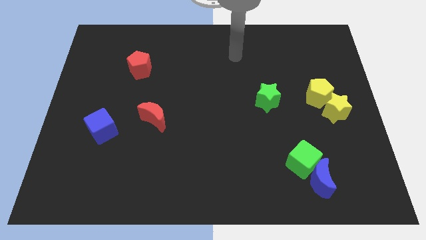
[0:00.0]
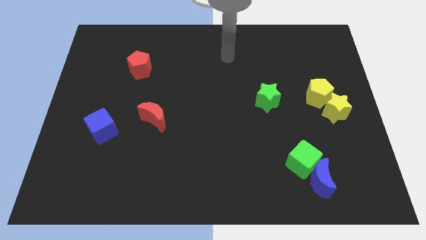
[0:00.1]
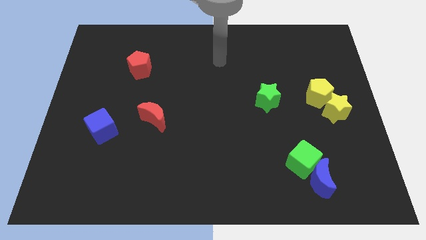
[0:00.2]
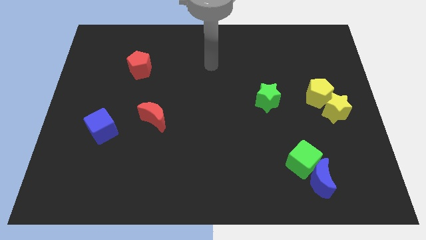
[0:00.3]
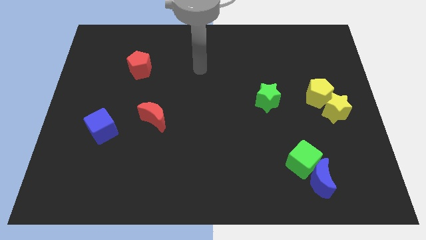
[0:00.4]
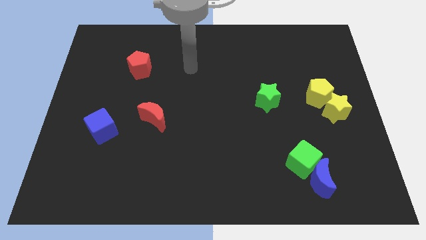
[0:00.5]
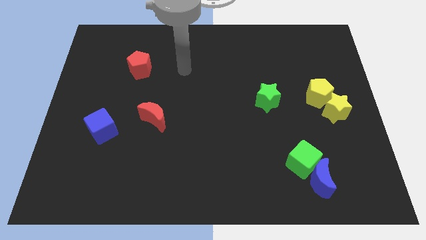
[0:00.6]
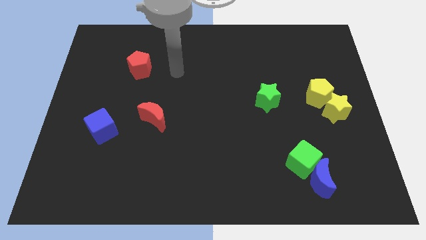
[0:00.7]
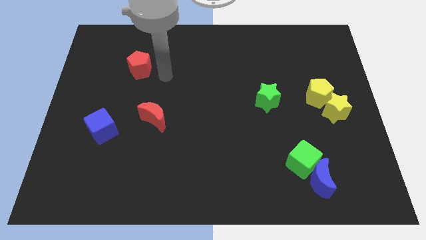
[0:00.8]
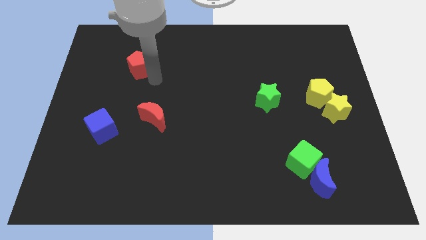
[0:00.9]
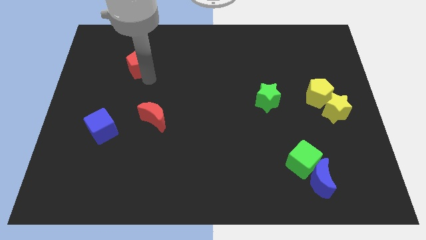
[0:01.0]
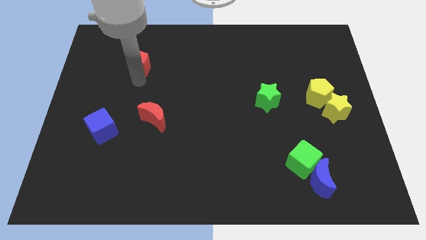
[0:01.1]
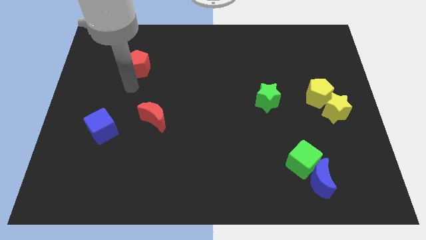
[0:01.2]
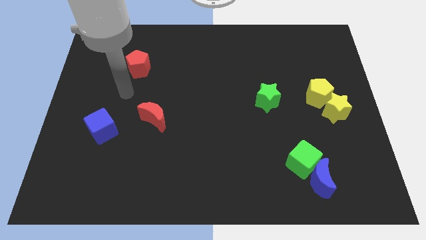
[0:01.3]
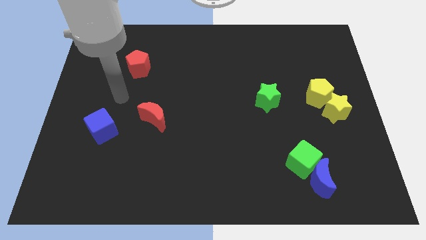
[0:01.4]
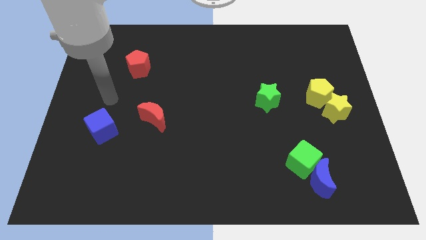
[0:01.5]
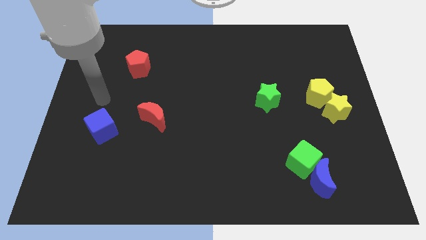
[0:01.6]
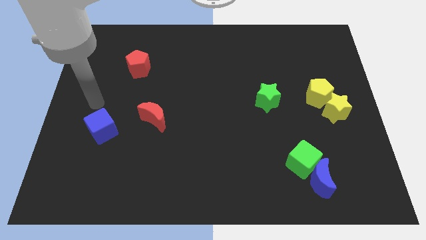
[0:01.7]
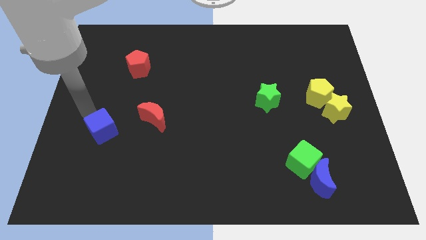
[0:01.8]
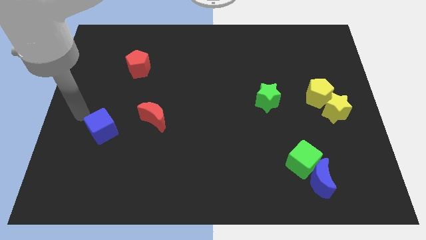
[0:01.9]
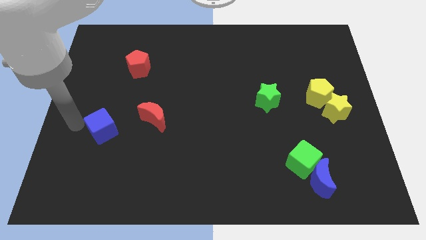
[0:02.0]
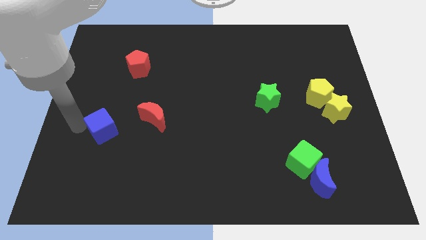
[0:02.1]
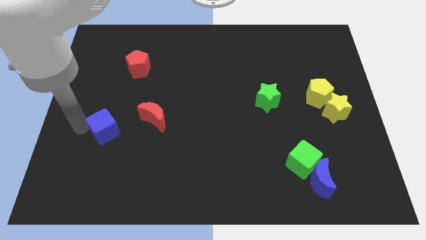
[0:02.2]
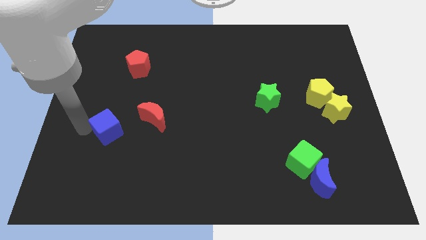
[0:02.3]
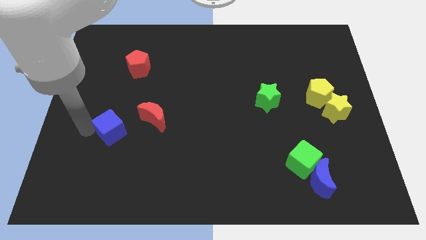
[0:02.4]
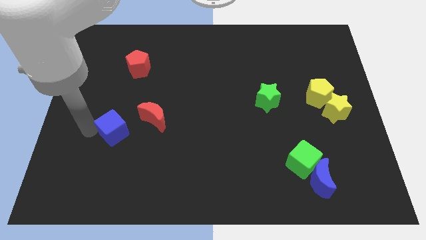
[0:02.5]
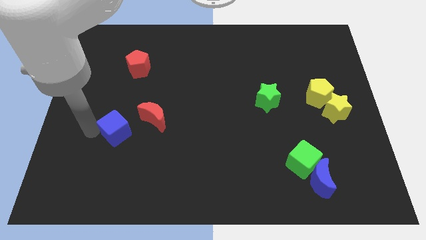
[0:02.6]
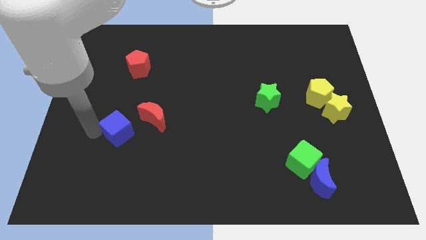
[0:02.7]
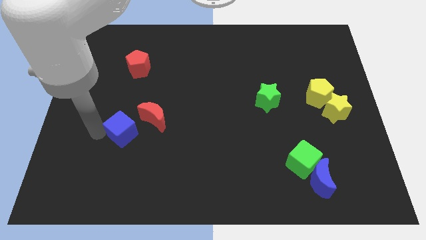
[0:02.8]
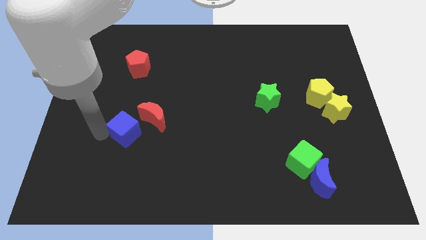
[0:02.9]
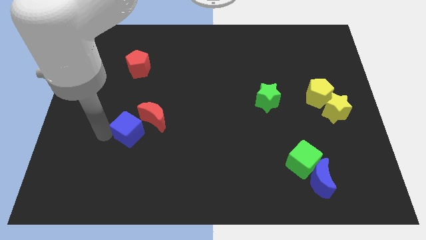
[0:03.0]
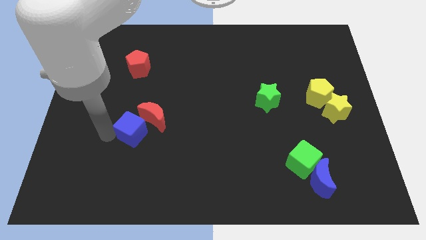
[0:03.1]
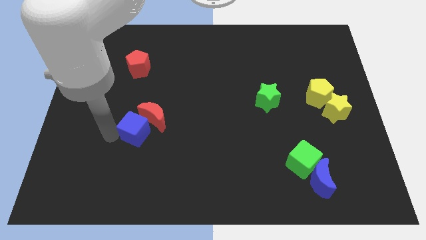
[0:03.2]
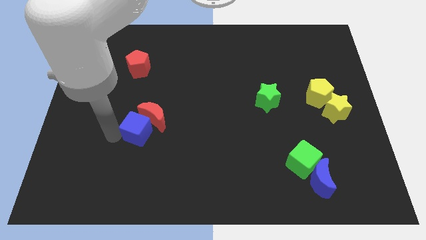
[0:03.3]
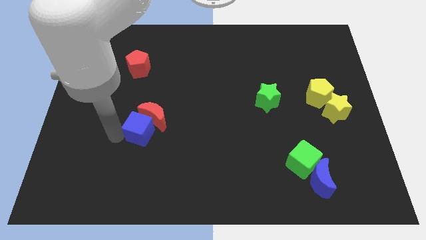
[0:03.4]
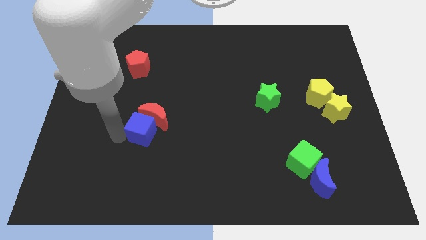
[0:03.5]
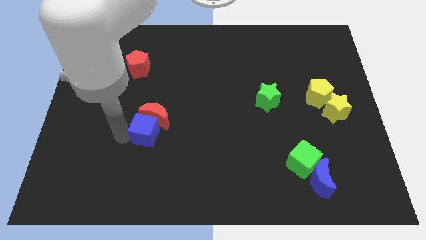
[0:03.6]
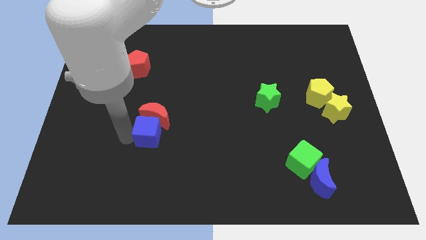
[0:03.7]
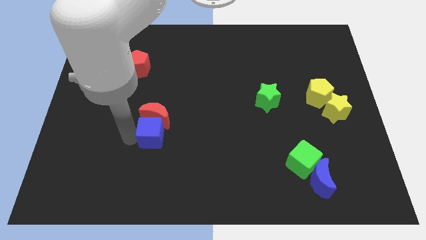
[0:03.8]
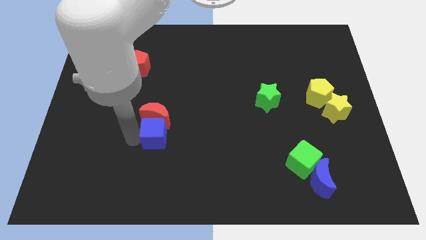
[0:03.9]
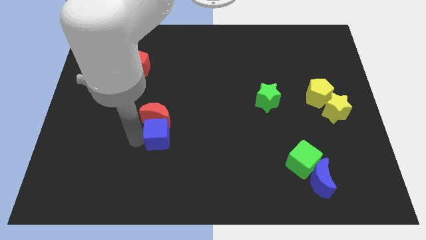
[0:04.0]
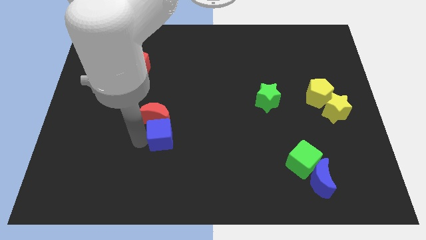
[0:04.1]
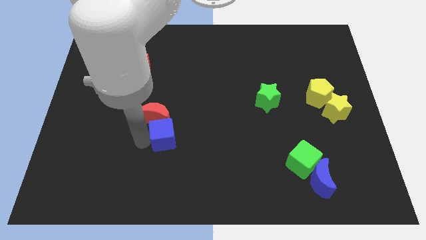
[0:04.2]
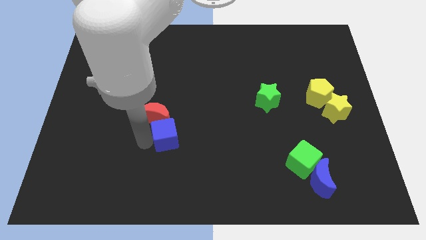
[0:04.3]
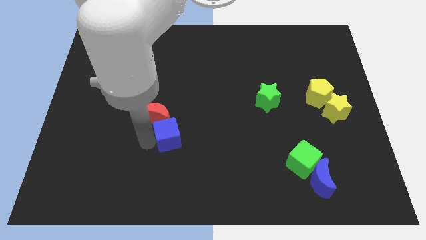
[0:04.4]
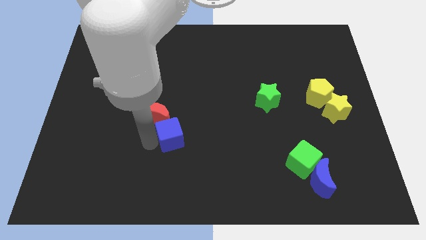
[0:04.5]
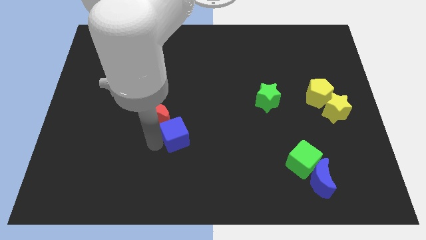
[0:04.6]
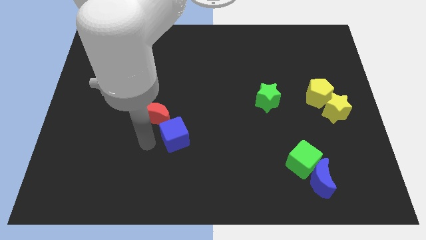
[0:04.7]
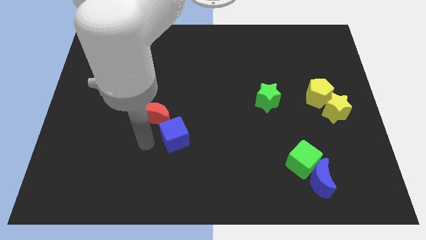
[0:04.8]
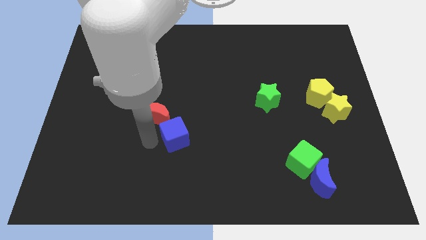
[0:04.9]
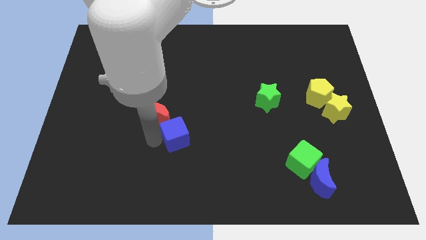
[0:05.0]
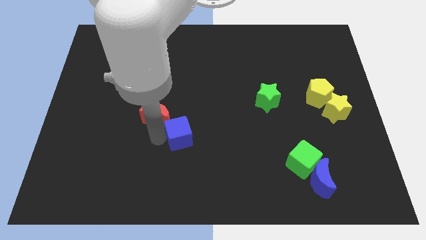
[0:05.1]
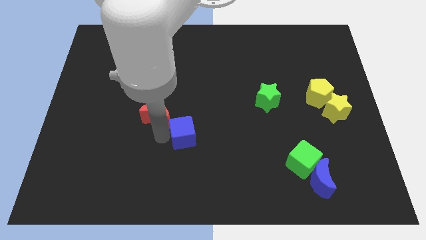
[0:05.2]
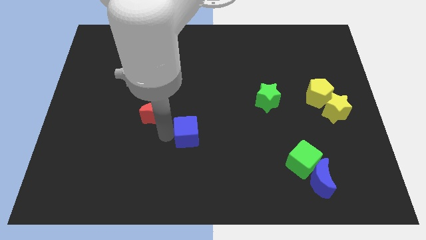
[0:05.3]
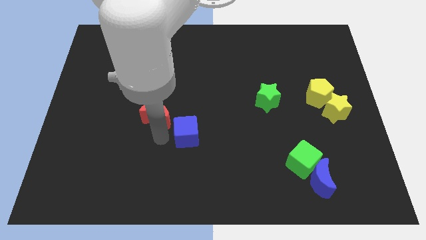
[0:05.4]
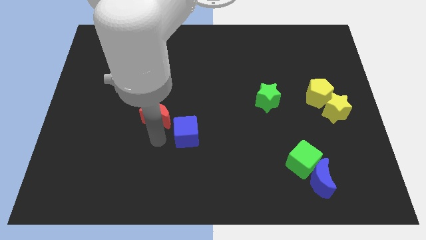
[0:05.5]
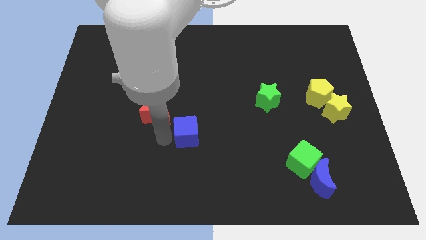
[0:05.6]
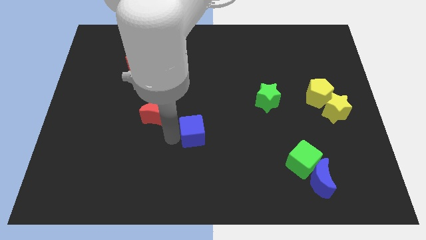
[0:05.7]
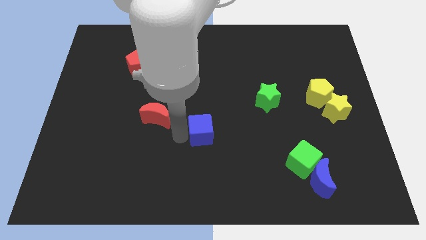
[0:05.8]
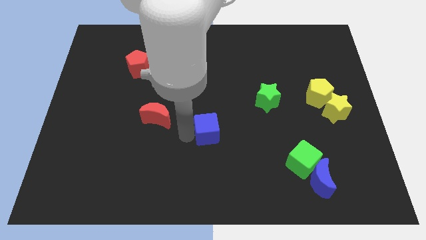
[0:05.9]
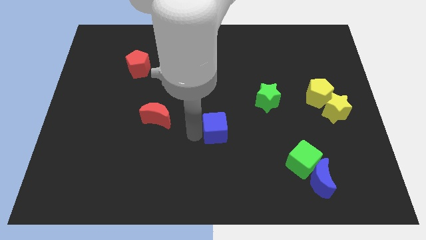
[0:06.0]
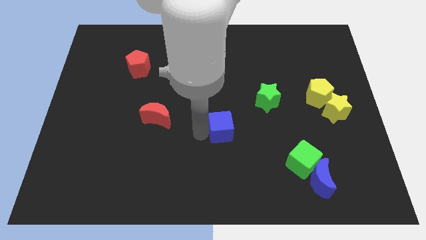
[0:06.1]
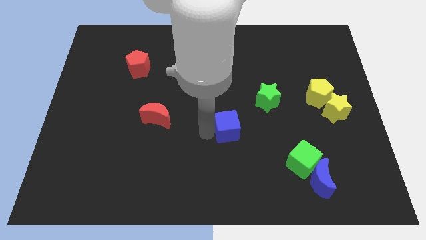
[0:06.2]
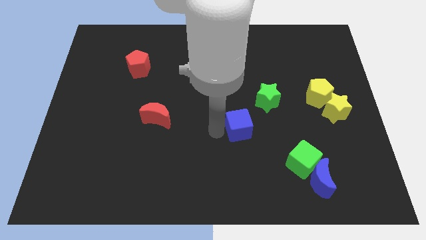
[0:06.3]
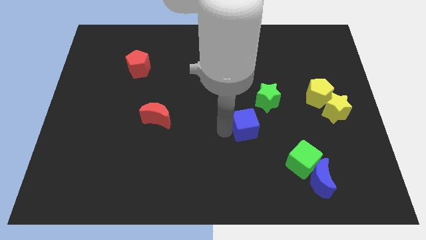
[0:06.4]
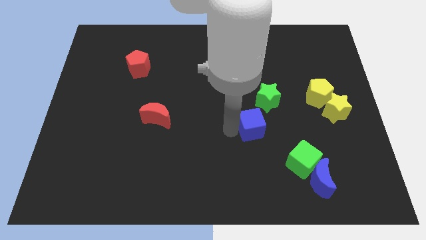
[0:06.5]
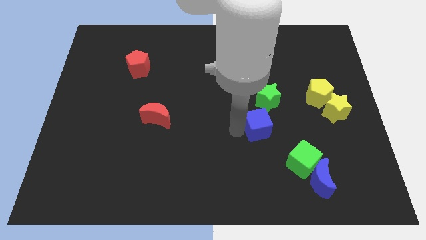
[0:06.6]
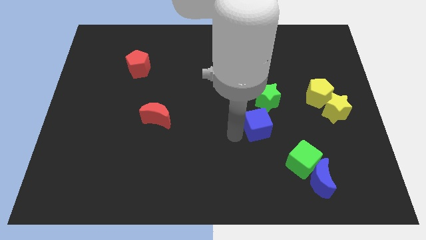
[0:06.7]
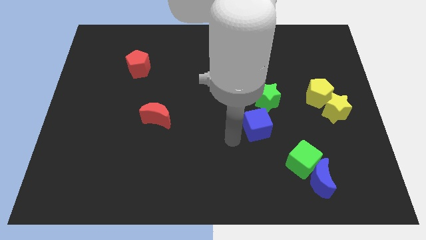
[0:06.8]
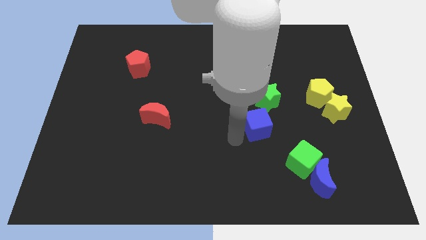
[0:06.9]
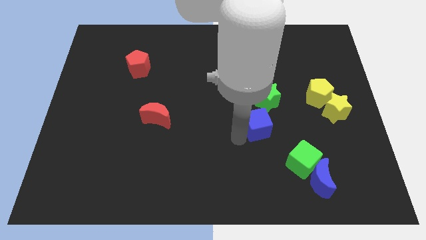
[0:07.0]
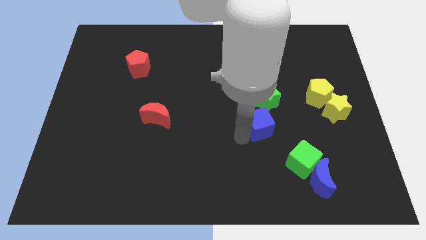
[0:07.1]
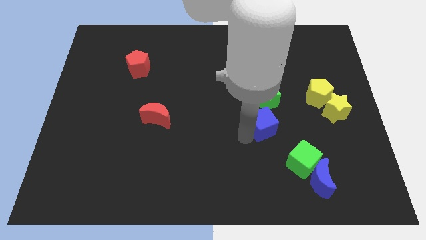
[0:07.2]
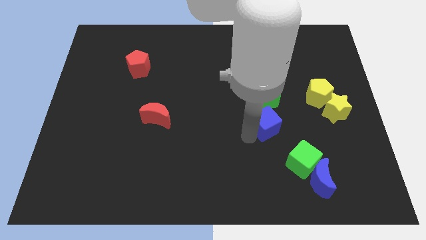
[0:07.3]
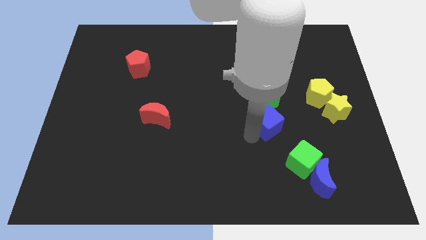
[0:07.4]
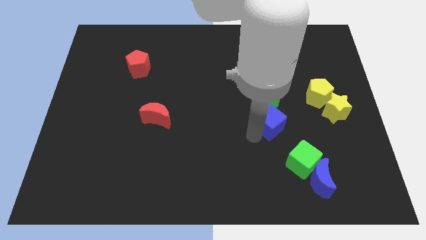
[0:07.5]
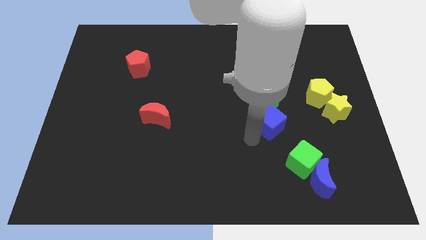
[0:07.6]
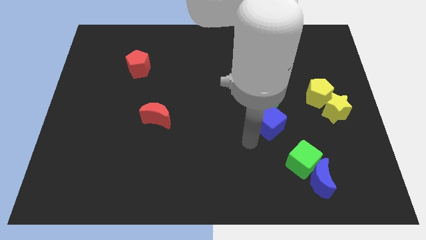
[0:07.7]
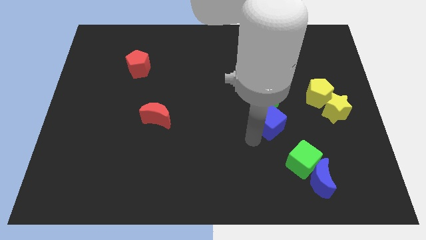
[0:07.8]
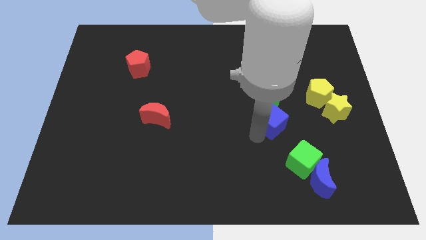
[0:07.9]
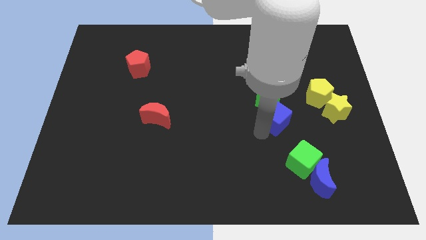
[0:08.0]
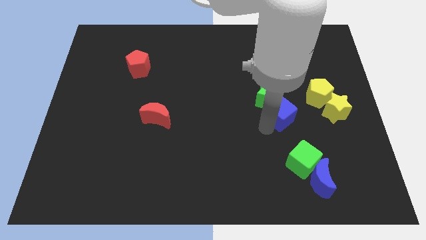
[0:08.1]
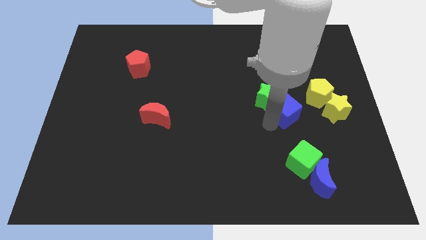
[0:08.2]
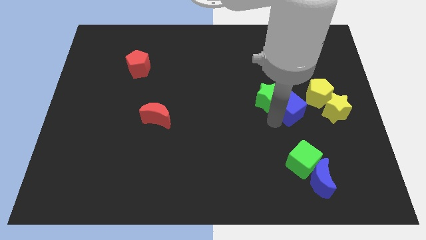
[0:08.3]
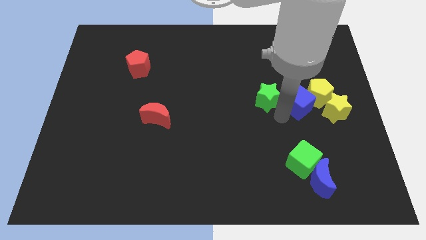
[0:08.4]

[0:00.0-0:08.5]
slide the blue cube close to the yellow pentagon

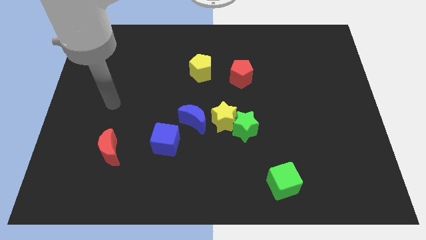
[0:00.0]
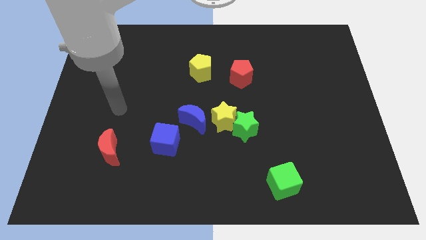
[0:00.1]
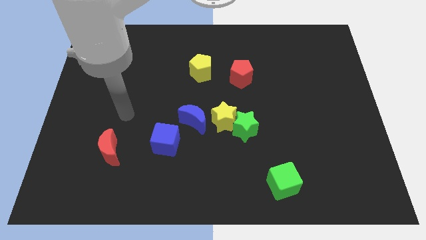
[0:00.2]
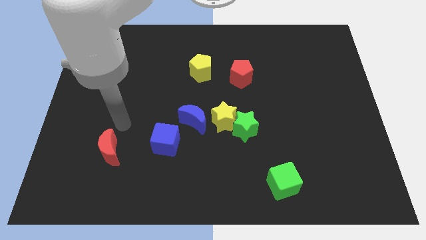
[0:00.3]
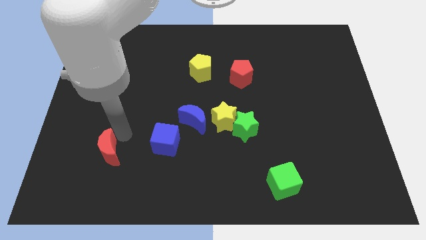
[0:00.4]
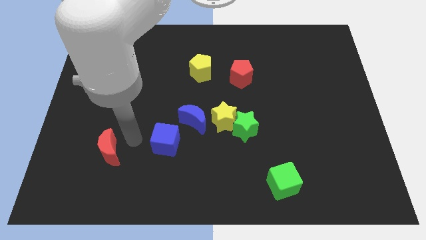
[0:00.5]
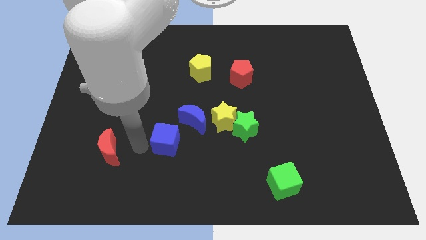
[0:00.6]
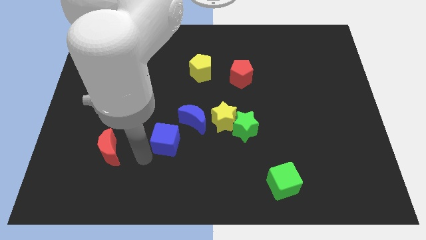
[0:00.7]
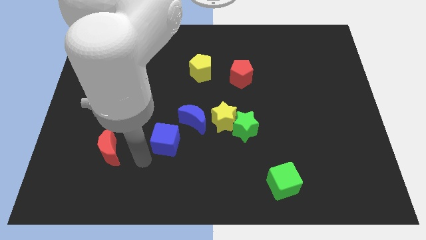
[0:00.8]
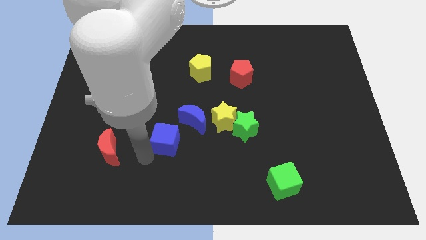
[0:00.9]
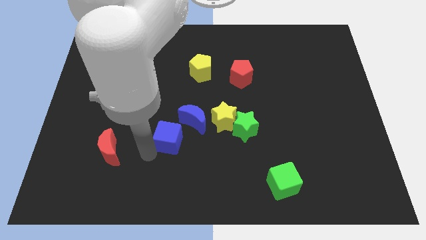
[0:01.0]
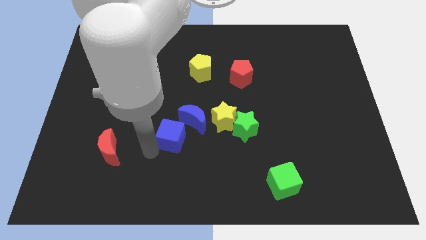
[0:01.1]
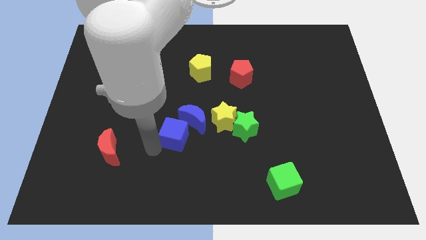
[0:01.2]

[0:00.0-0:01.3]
slide the blue cube to the blue moon
